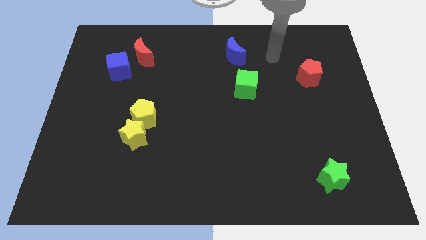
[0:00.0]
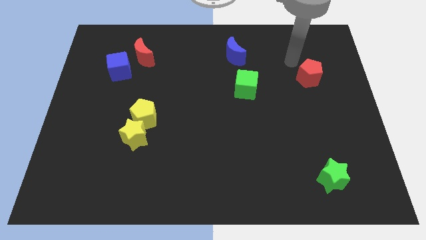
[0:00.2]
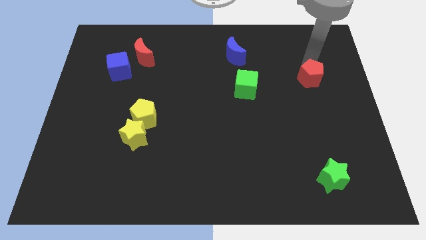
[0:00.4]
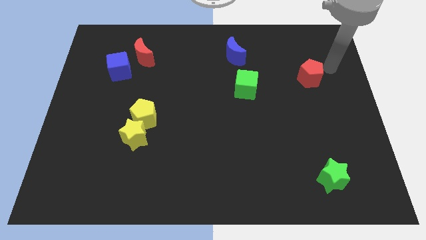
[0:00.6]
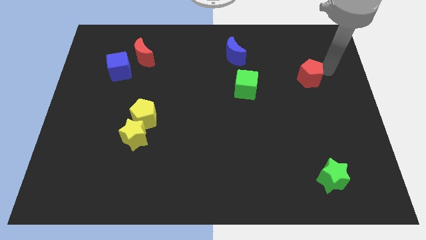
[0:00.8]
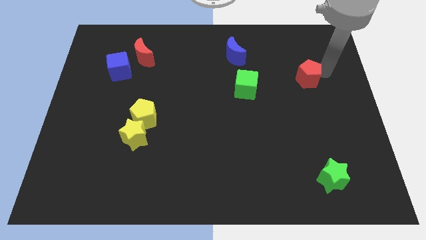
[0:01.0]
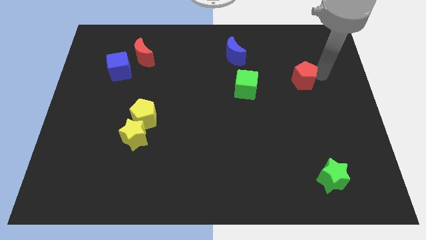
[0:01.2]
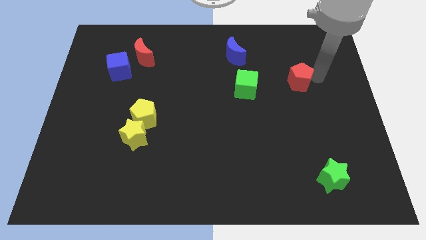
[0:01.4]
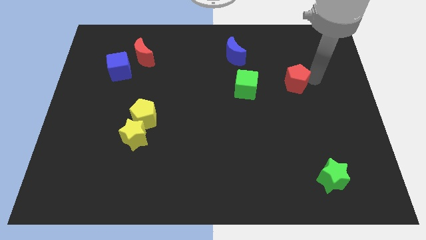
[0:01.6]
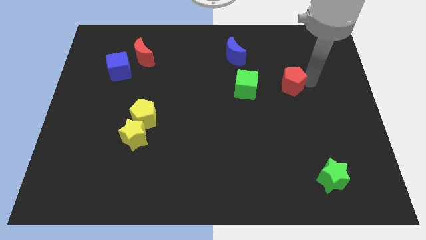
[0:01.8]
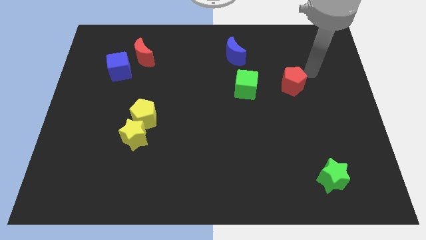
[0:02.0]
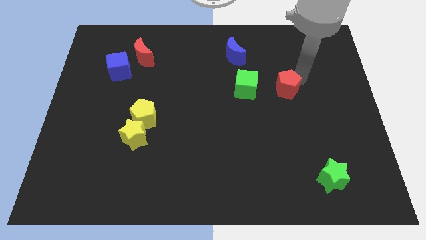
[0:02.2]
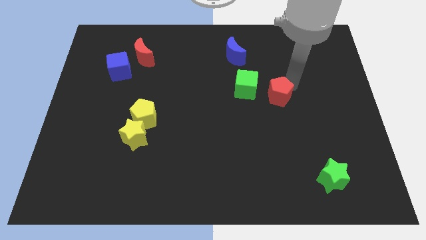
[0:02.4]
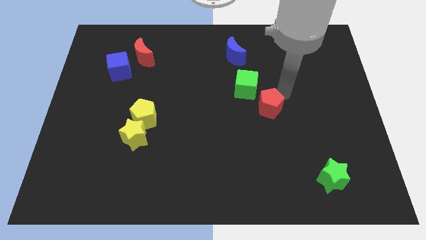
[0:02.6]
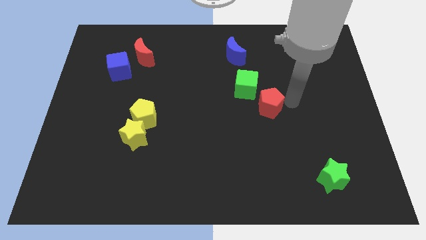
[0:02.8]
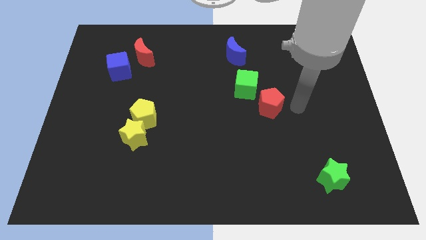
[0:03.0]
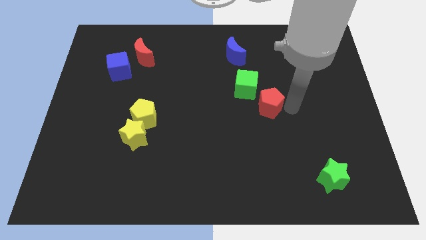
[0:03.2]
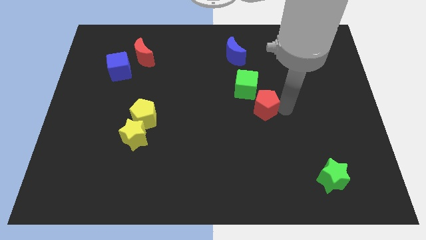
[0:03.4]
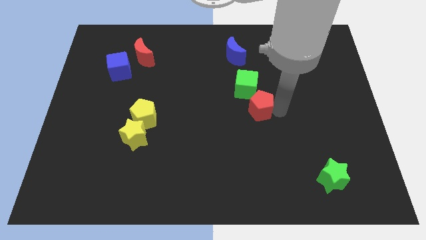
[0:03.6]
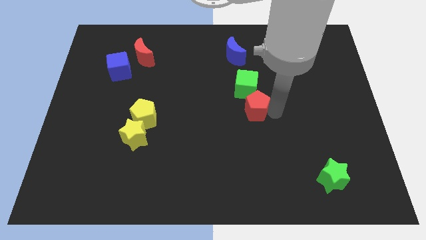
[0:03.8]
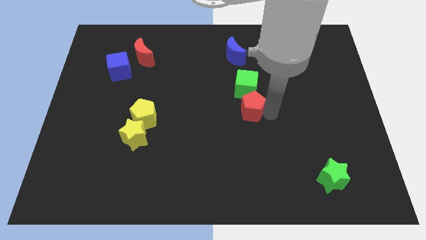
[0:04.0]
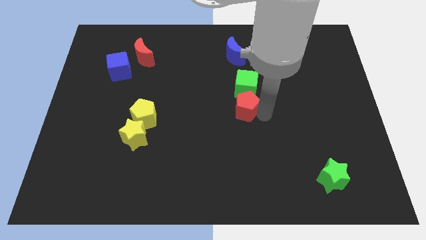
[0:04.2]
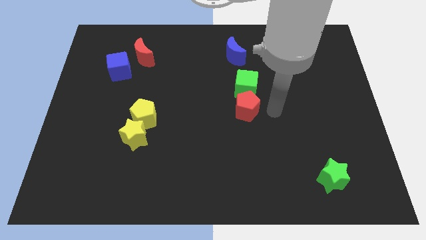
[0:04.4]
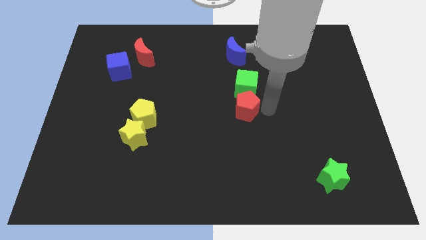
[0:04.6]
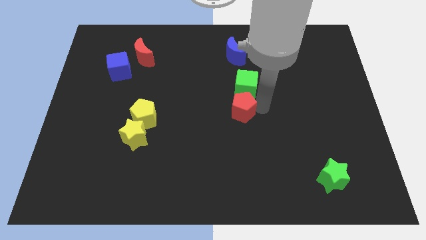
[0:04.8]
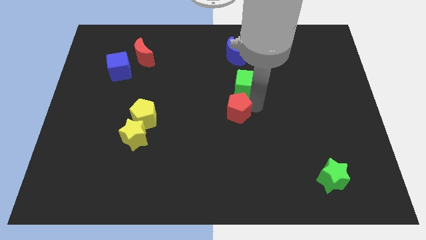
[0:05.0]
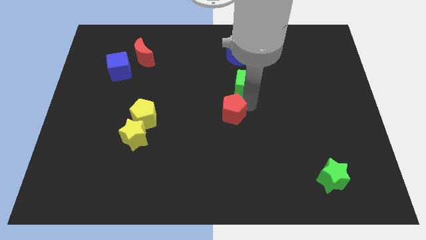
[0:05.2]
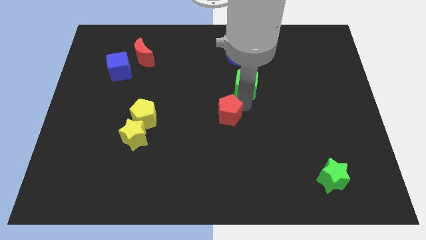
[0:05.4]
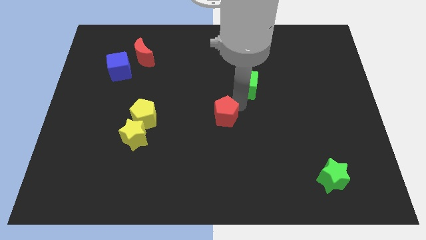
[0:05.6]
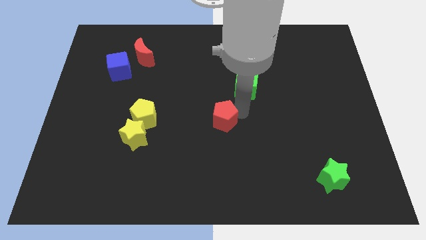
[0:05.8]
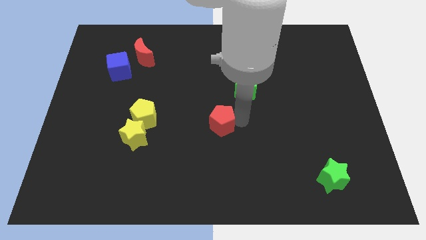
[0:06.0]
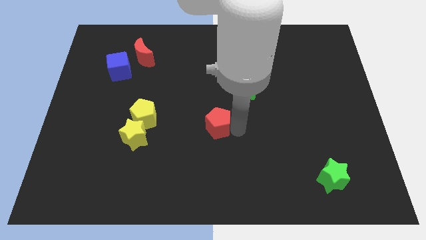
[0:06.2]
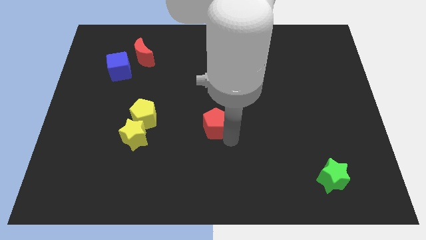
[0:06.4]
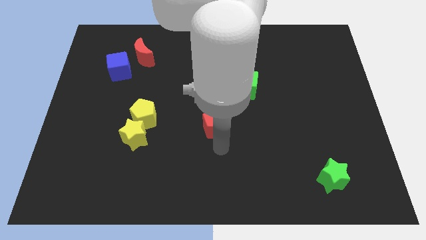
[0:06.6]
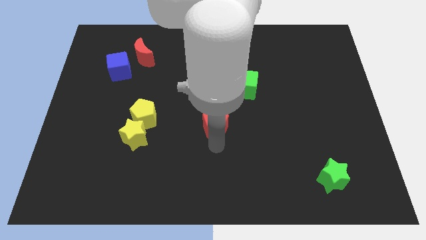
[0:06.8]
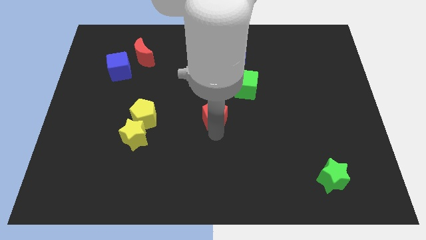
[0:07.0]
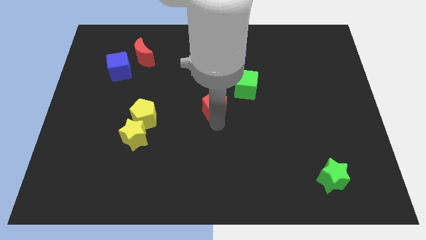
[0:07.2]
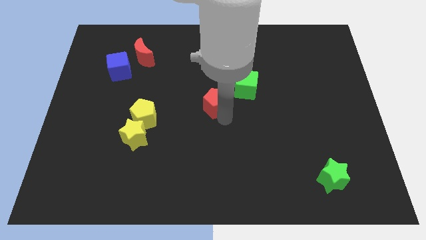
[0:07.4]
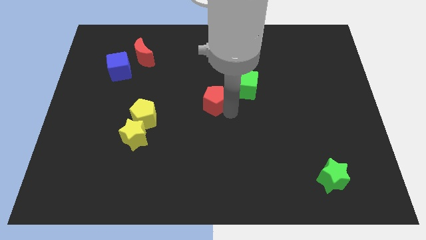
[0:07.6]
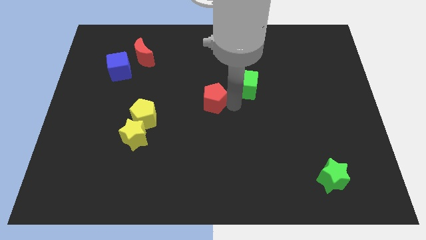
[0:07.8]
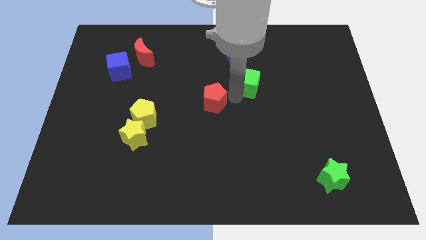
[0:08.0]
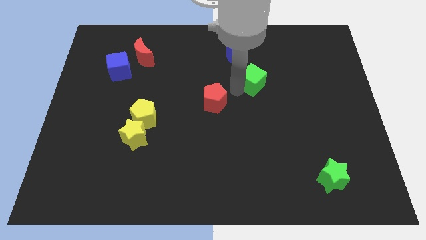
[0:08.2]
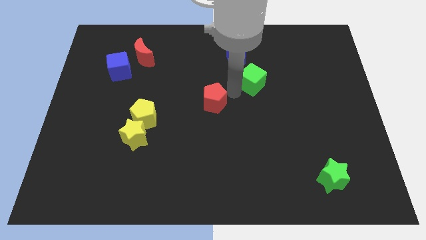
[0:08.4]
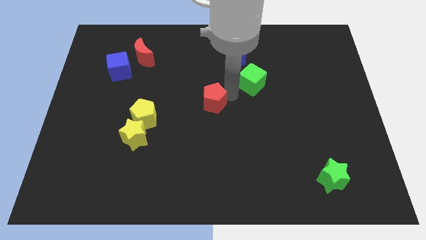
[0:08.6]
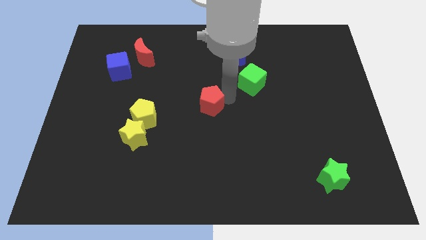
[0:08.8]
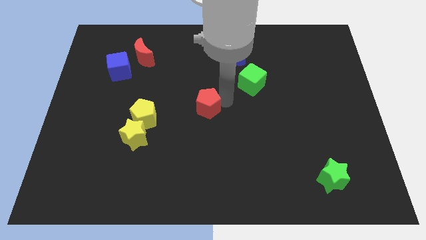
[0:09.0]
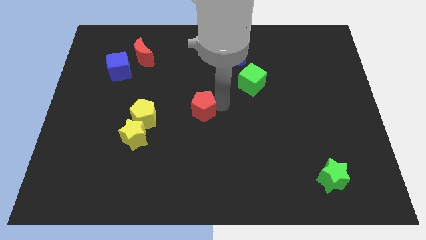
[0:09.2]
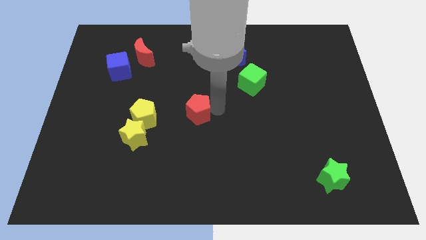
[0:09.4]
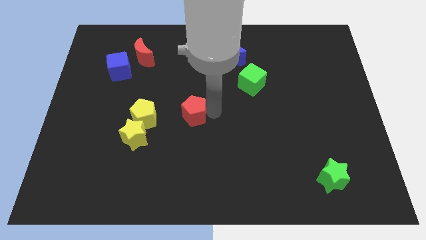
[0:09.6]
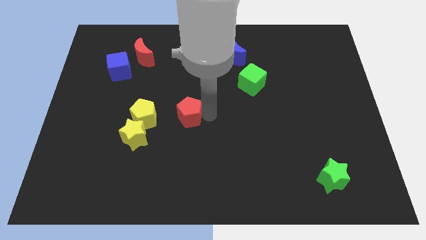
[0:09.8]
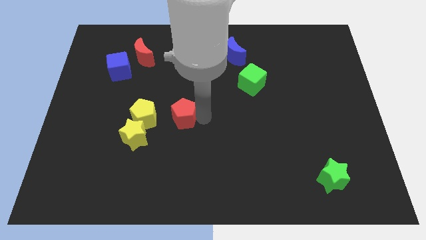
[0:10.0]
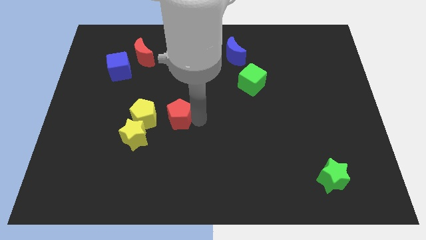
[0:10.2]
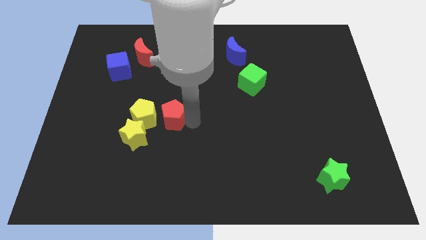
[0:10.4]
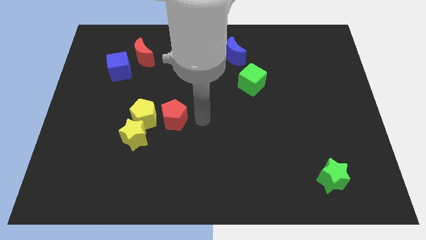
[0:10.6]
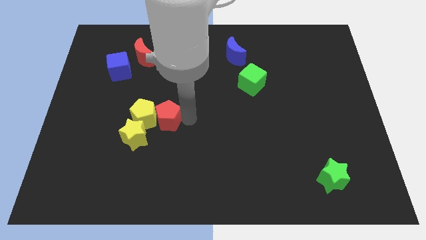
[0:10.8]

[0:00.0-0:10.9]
slide the red pentagon next to the yellow pentagon

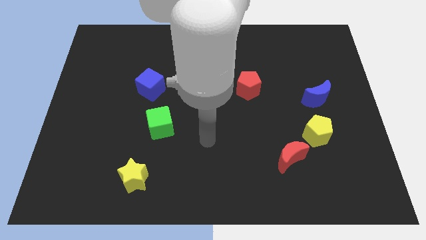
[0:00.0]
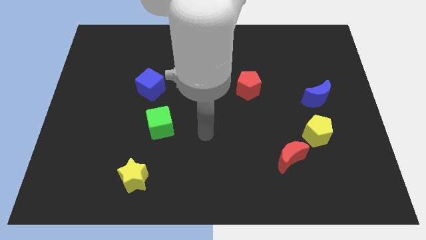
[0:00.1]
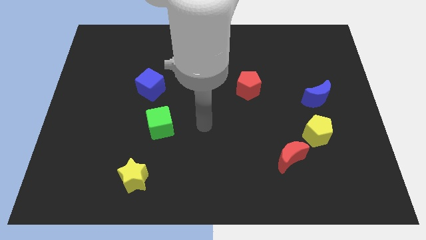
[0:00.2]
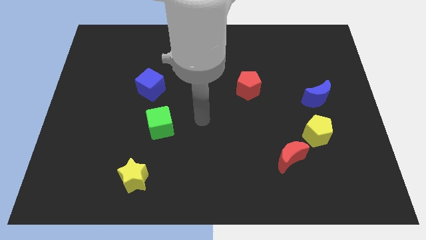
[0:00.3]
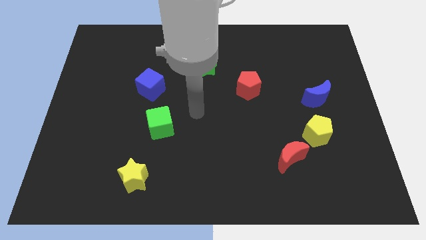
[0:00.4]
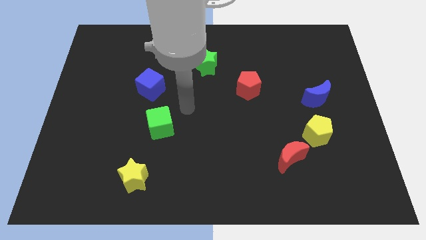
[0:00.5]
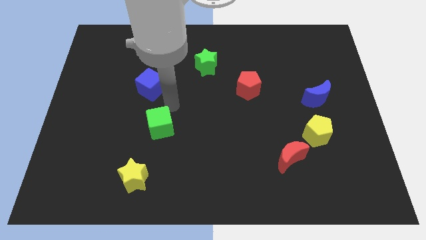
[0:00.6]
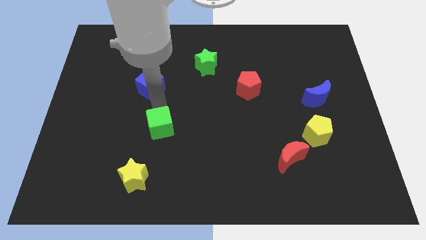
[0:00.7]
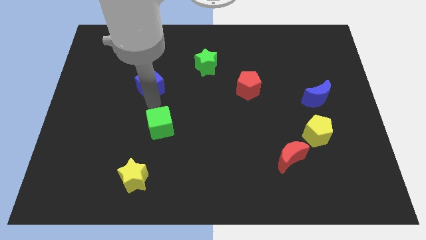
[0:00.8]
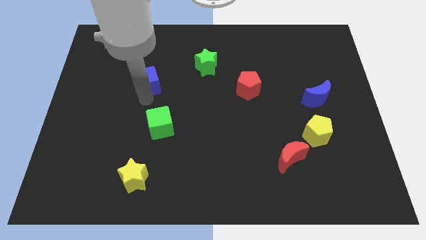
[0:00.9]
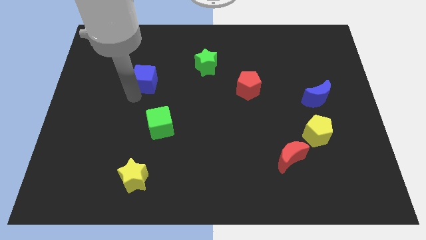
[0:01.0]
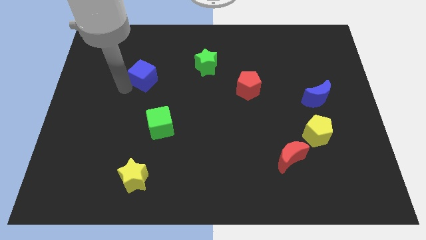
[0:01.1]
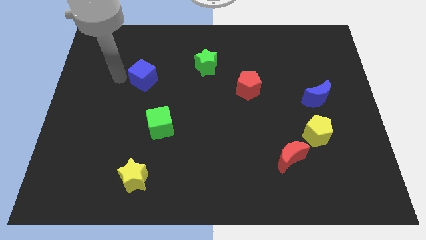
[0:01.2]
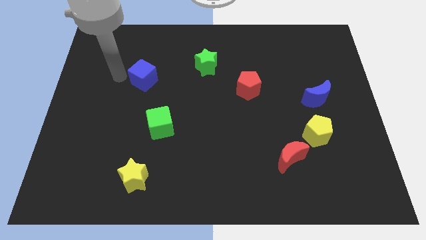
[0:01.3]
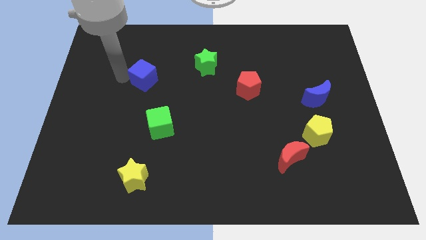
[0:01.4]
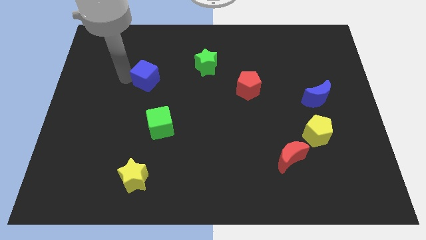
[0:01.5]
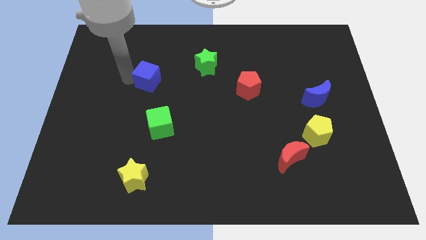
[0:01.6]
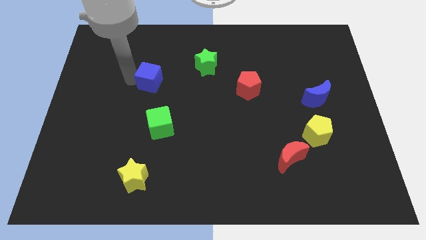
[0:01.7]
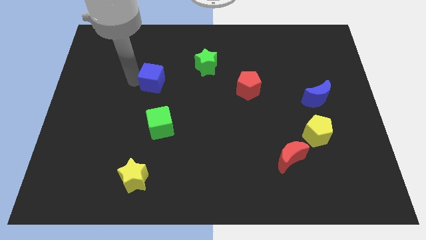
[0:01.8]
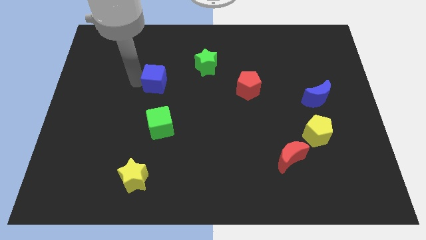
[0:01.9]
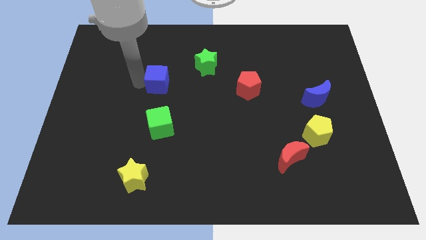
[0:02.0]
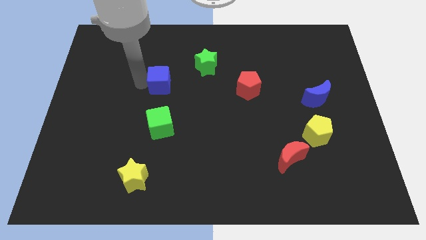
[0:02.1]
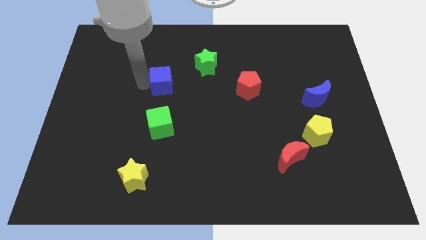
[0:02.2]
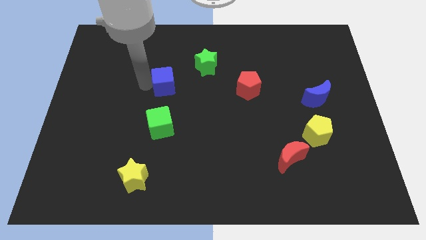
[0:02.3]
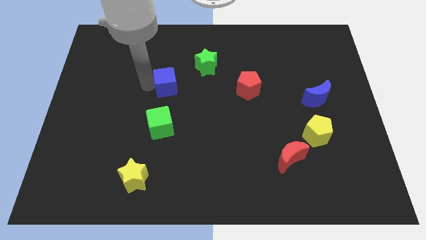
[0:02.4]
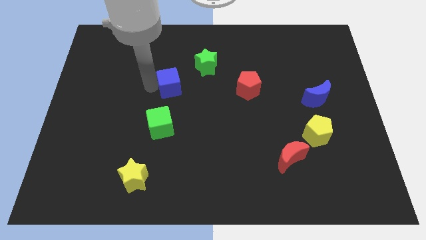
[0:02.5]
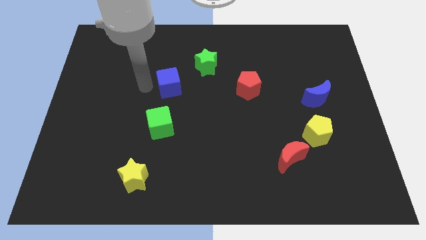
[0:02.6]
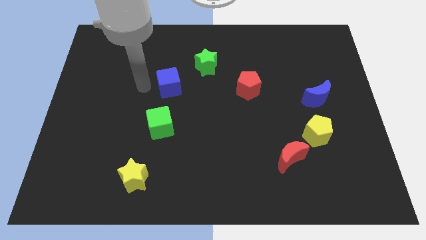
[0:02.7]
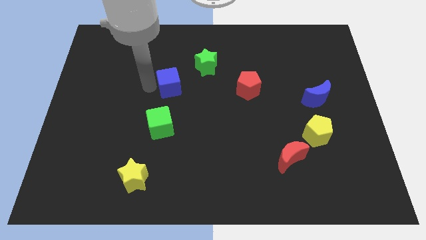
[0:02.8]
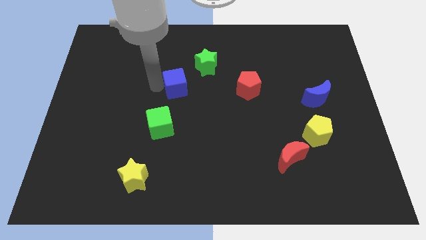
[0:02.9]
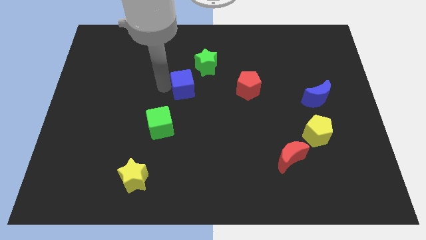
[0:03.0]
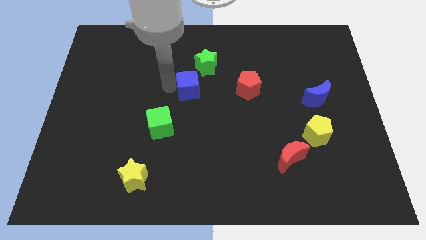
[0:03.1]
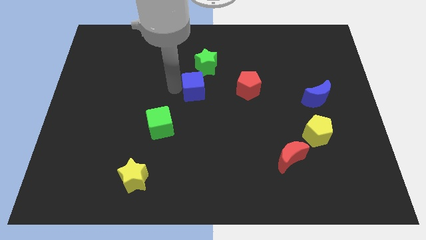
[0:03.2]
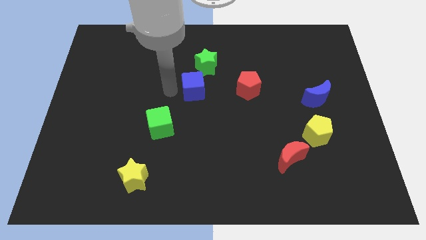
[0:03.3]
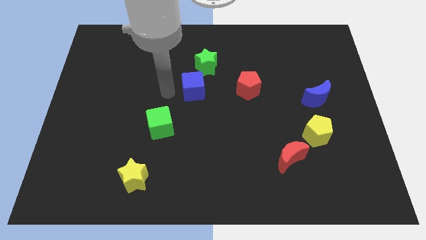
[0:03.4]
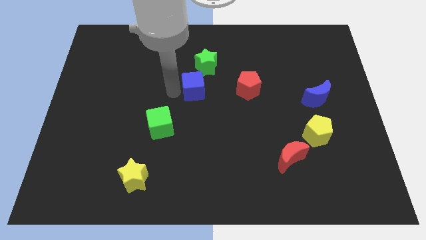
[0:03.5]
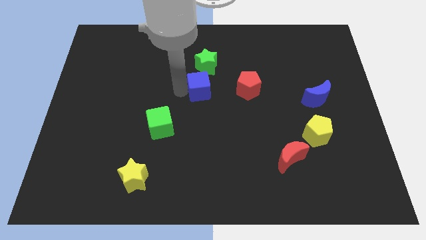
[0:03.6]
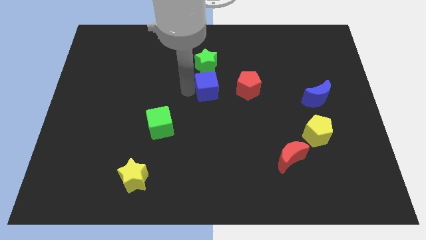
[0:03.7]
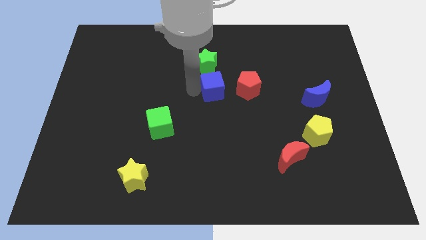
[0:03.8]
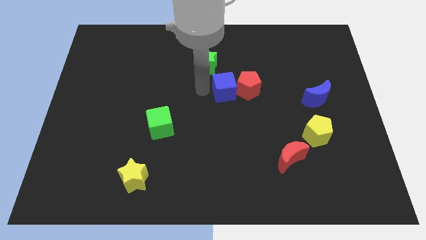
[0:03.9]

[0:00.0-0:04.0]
move the blue cube close to the red pentagon
